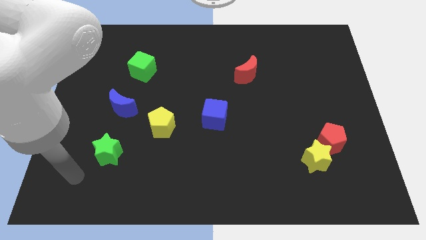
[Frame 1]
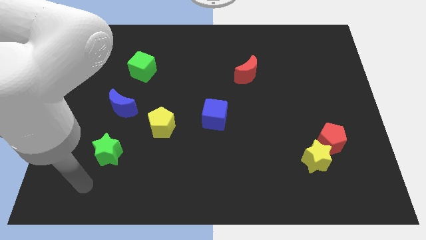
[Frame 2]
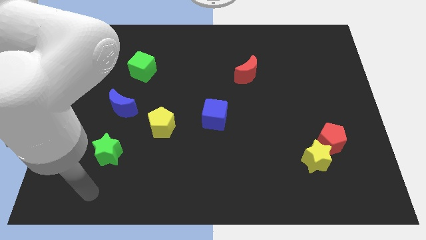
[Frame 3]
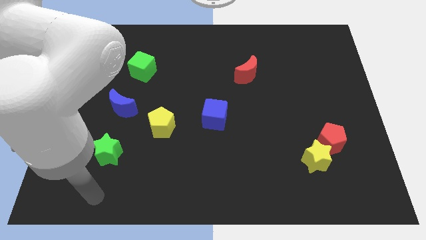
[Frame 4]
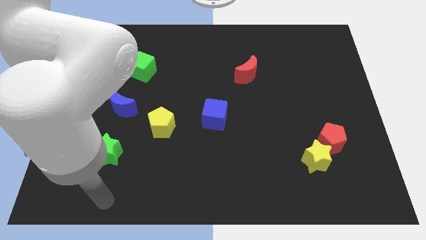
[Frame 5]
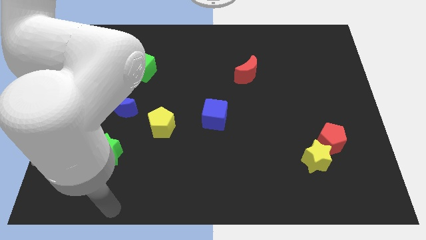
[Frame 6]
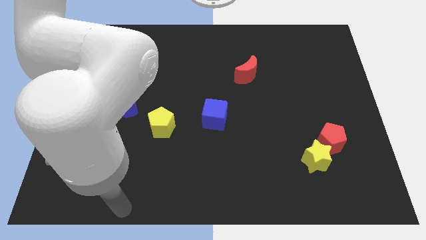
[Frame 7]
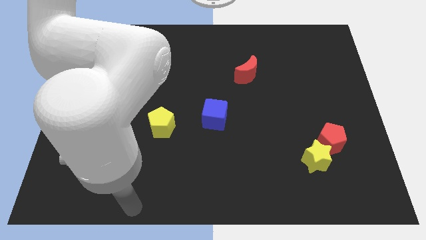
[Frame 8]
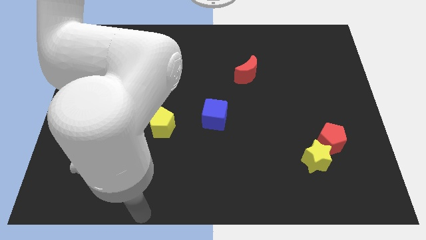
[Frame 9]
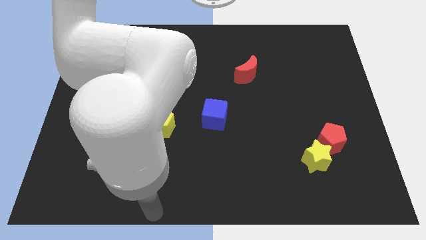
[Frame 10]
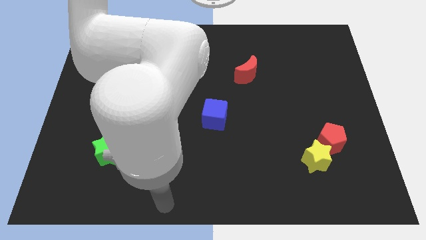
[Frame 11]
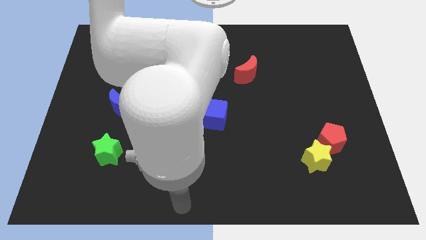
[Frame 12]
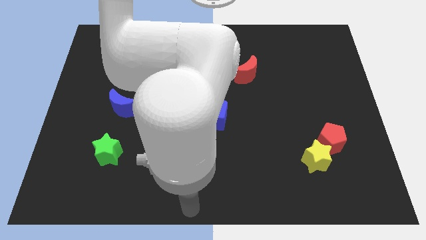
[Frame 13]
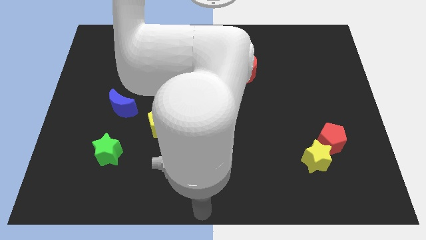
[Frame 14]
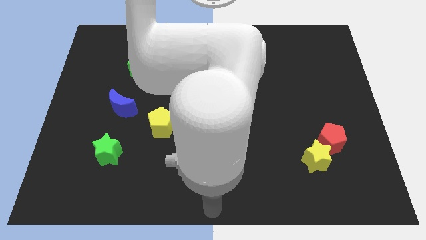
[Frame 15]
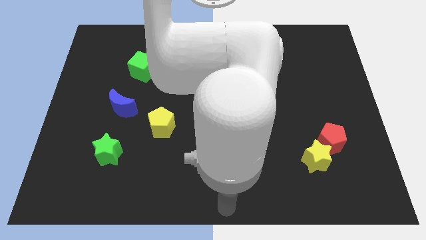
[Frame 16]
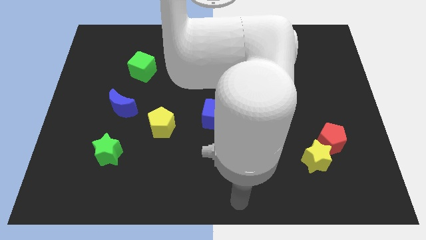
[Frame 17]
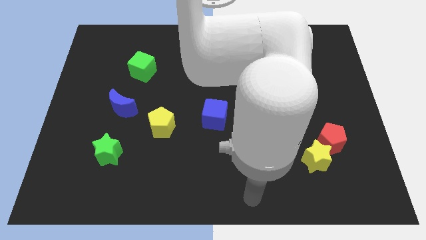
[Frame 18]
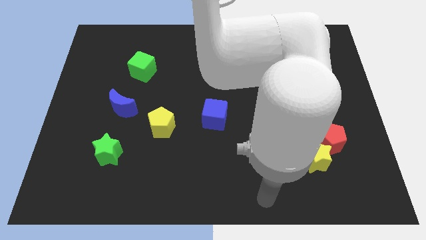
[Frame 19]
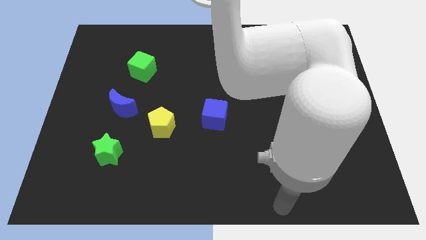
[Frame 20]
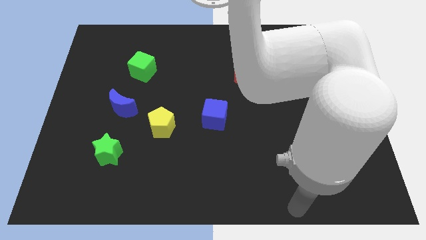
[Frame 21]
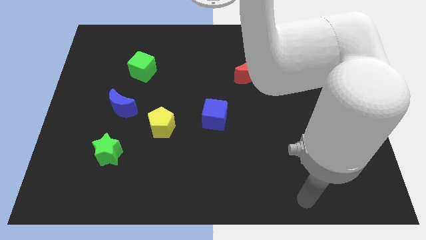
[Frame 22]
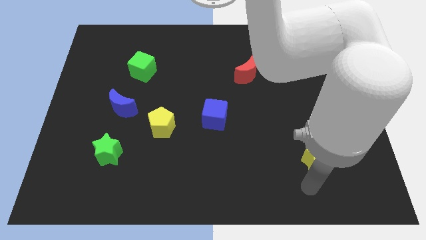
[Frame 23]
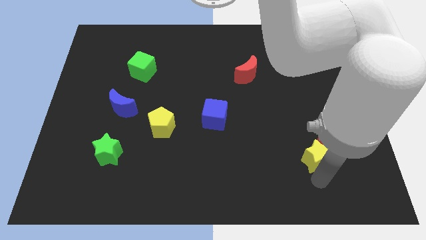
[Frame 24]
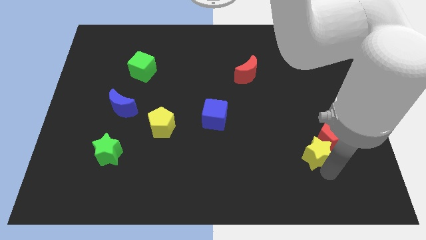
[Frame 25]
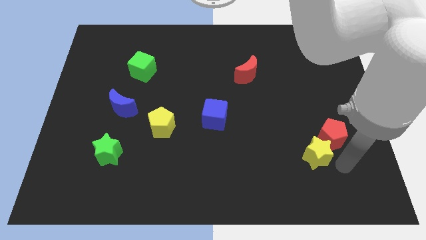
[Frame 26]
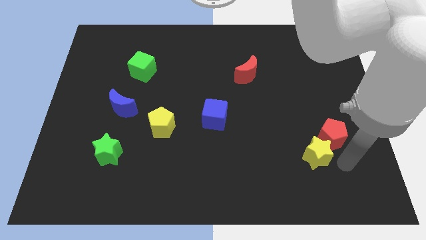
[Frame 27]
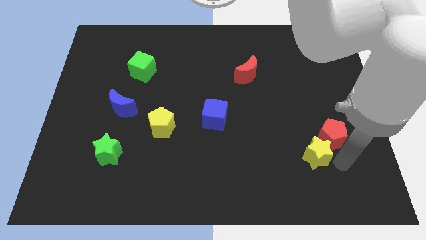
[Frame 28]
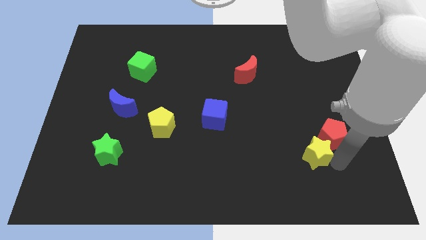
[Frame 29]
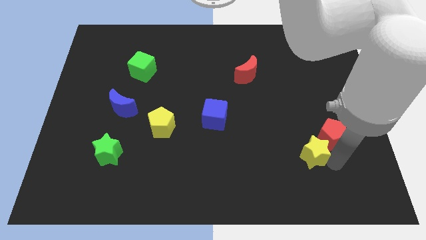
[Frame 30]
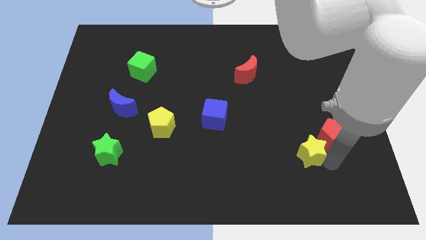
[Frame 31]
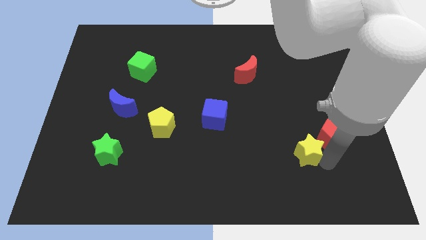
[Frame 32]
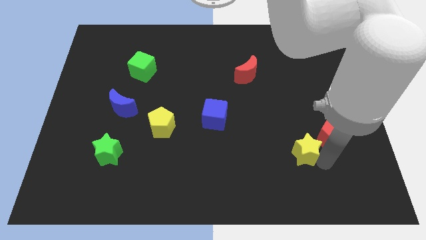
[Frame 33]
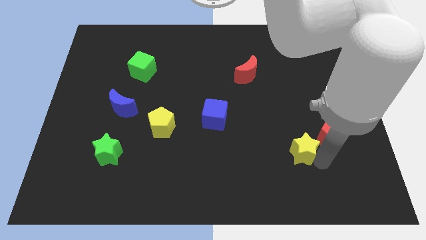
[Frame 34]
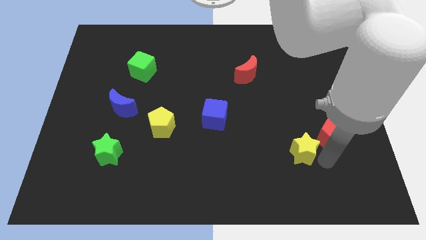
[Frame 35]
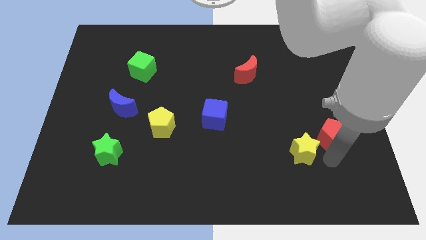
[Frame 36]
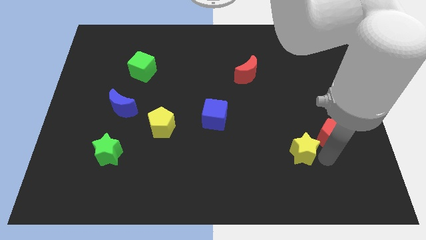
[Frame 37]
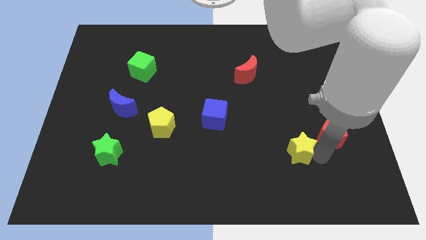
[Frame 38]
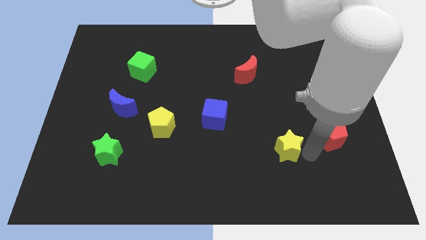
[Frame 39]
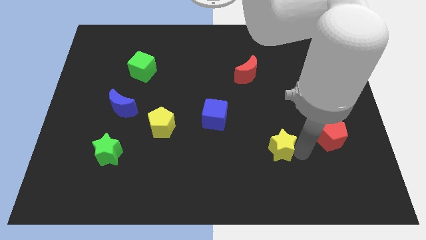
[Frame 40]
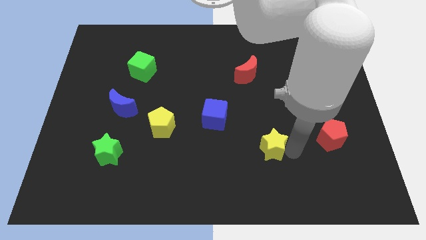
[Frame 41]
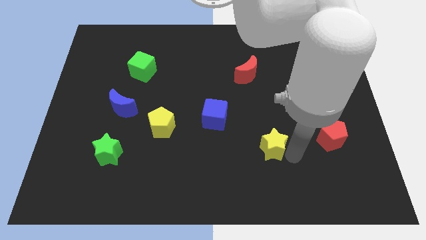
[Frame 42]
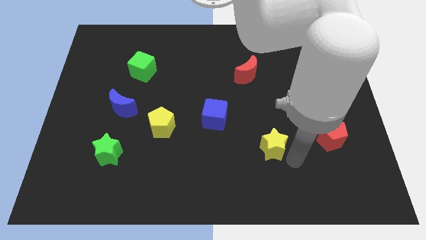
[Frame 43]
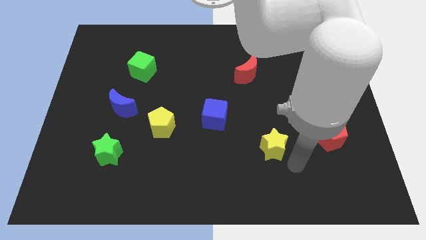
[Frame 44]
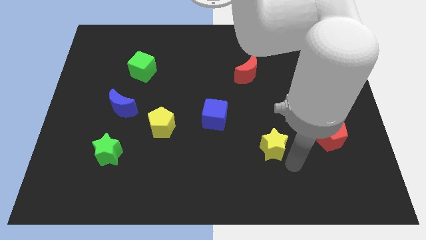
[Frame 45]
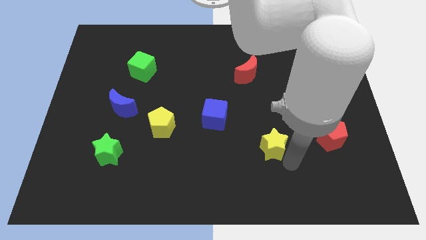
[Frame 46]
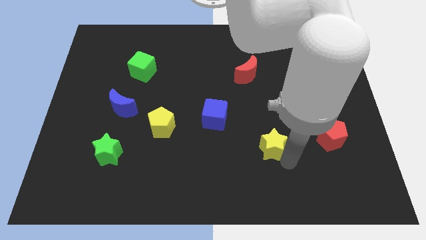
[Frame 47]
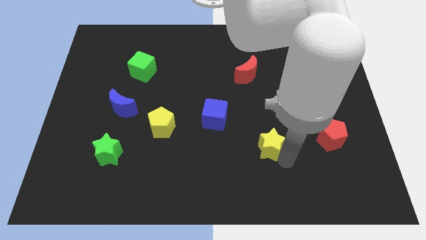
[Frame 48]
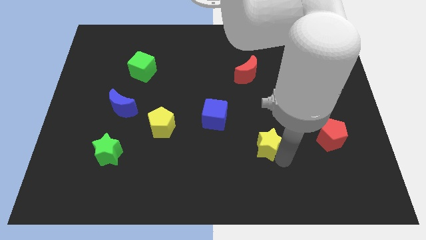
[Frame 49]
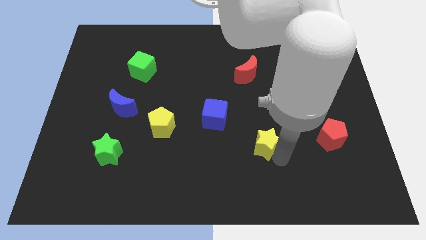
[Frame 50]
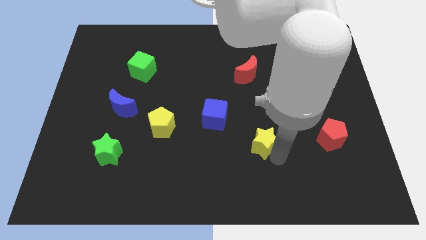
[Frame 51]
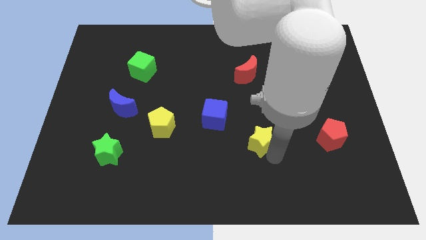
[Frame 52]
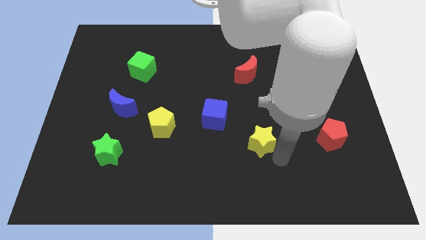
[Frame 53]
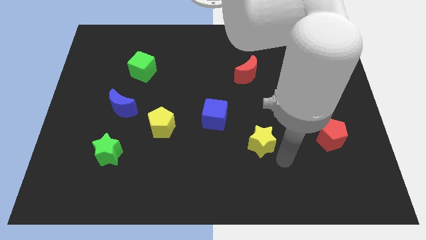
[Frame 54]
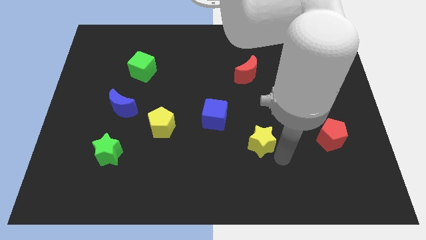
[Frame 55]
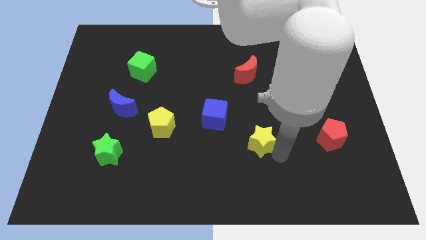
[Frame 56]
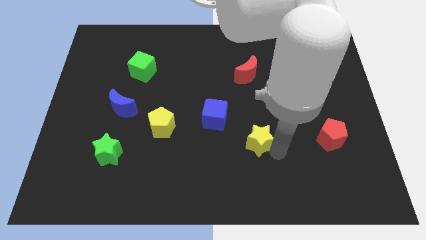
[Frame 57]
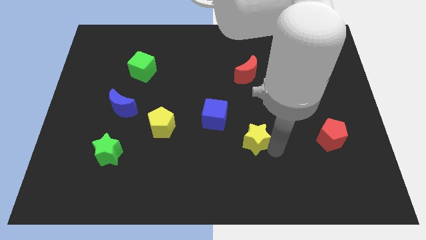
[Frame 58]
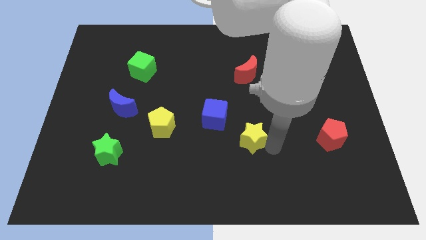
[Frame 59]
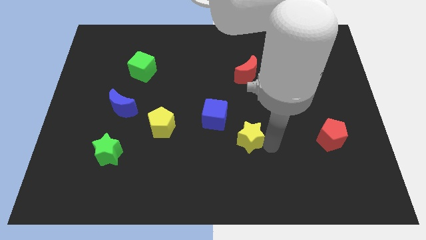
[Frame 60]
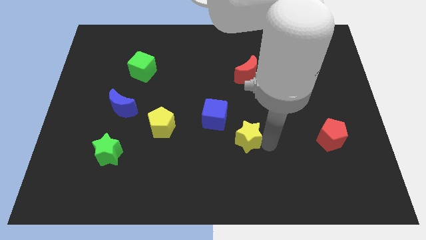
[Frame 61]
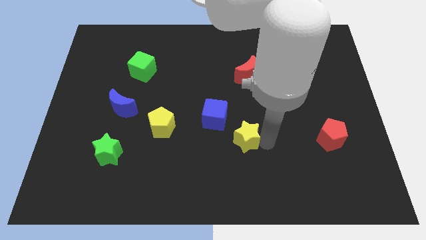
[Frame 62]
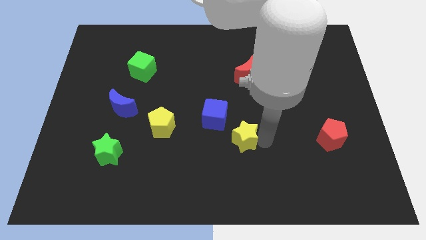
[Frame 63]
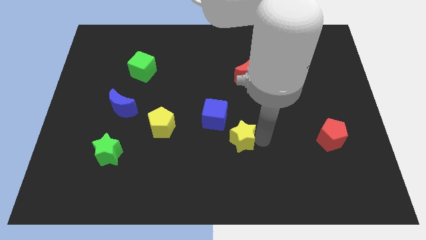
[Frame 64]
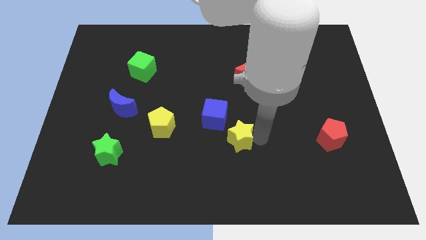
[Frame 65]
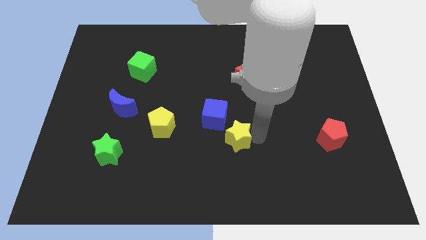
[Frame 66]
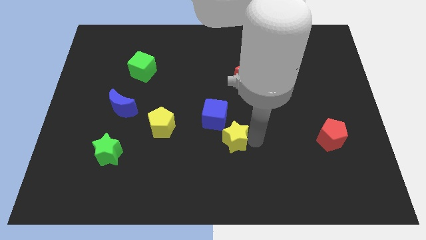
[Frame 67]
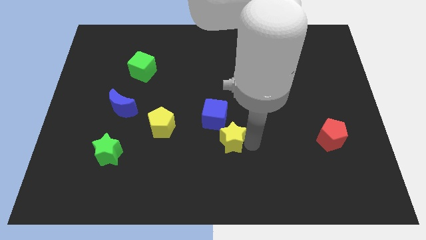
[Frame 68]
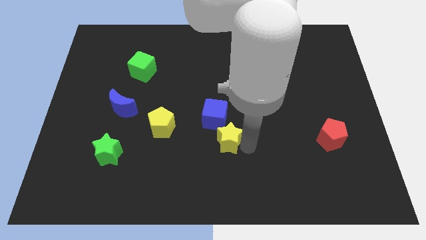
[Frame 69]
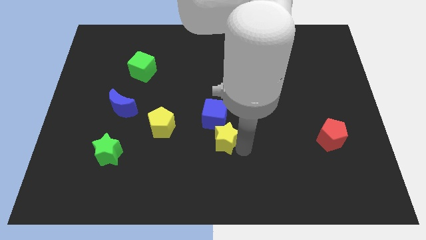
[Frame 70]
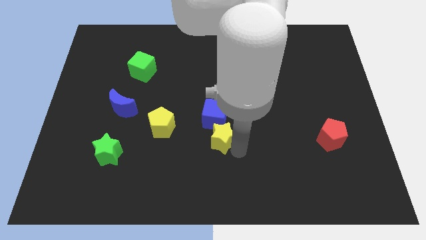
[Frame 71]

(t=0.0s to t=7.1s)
move the yellow star close to the blue cube
